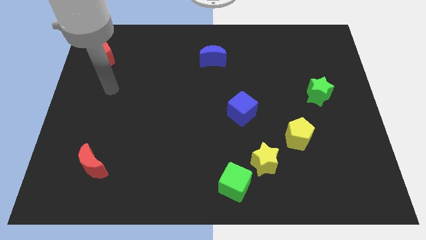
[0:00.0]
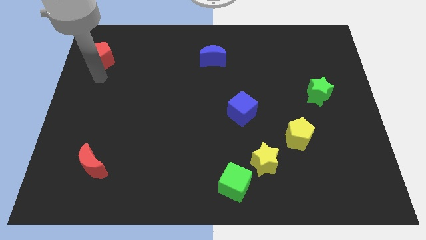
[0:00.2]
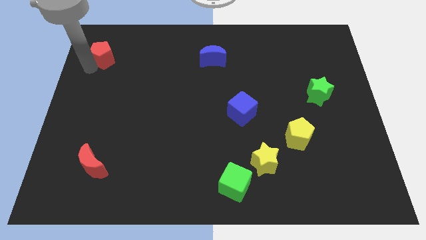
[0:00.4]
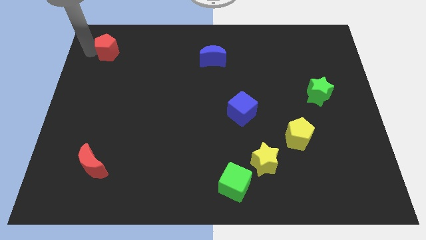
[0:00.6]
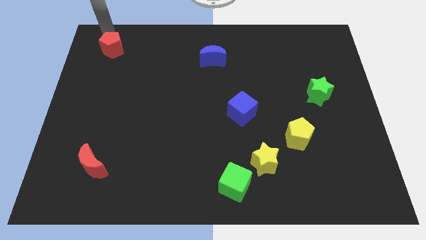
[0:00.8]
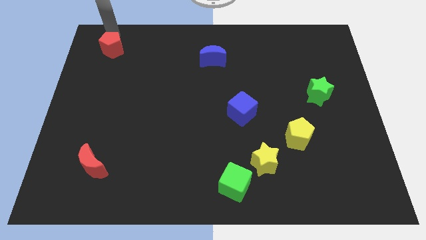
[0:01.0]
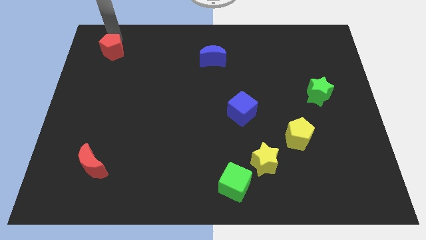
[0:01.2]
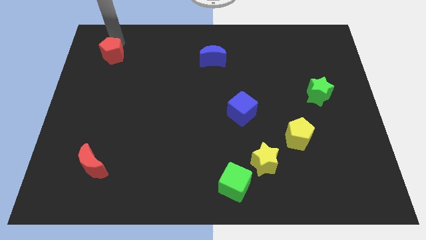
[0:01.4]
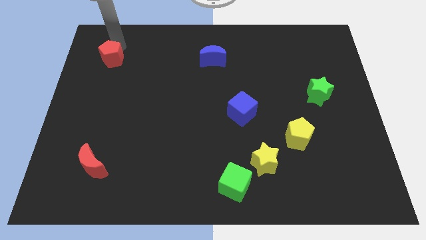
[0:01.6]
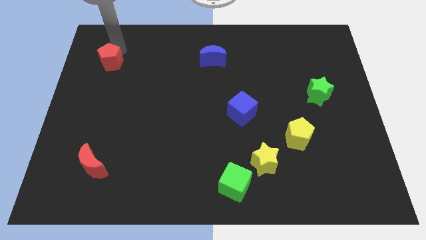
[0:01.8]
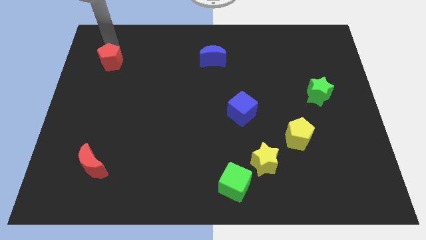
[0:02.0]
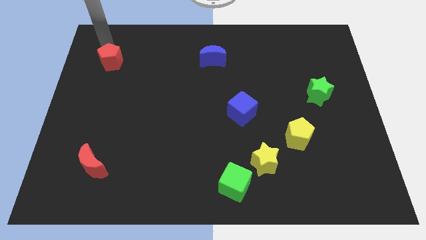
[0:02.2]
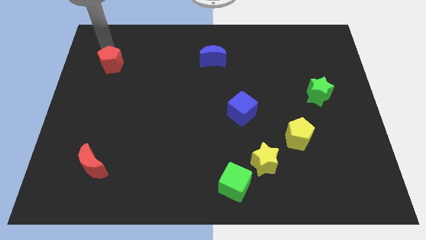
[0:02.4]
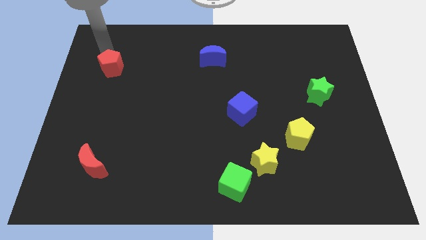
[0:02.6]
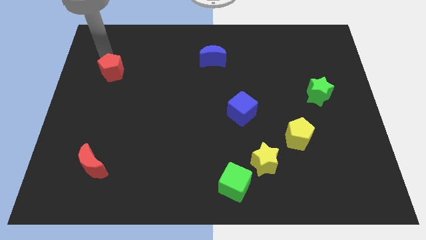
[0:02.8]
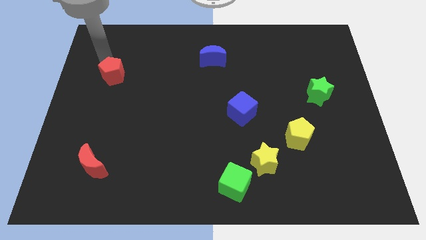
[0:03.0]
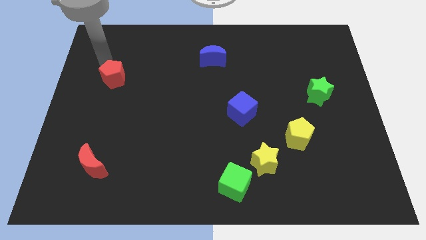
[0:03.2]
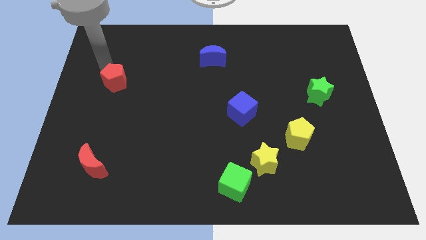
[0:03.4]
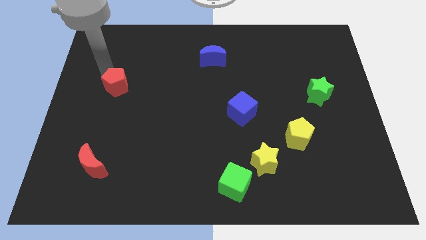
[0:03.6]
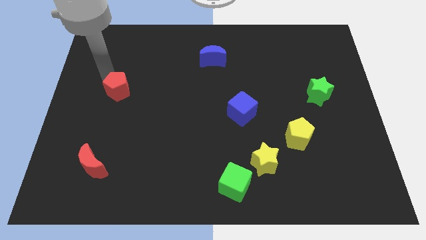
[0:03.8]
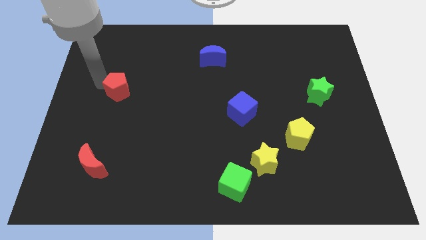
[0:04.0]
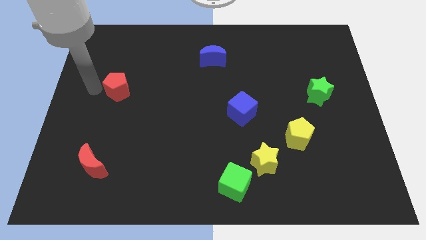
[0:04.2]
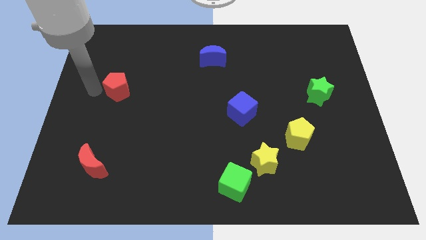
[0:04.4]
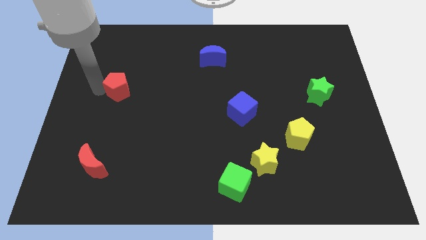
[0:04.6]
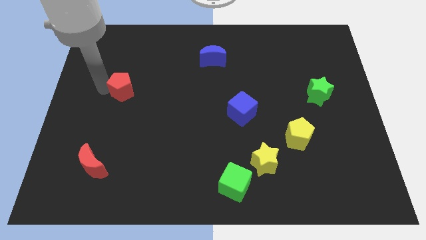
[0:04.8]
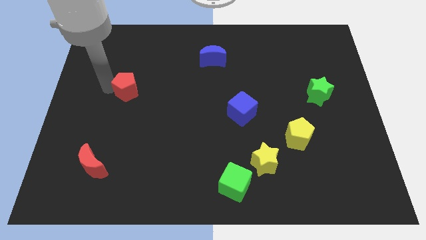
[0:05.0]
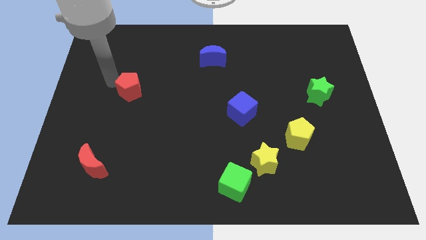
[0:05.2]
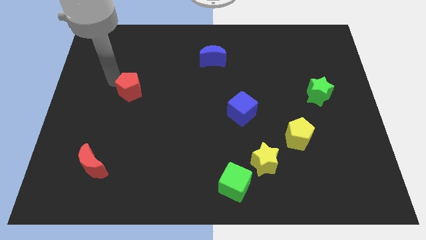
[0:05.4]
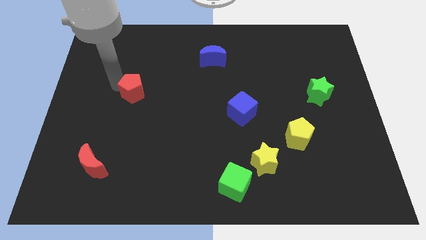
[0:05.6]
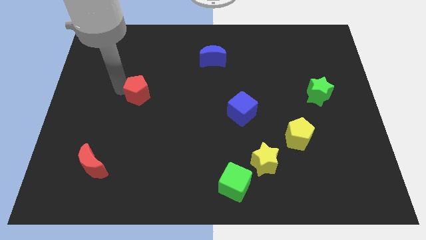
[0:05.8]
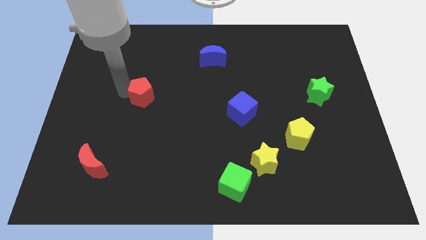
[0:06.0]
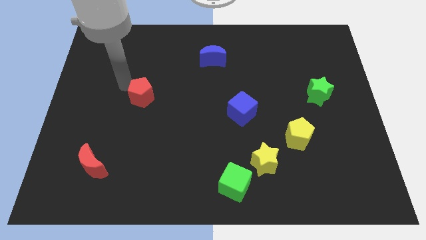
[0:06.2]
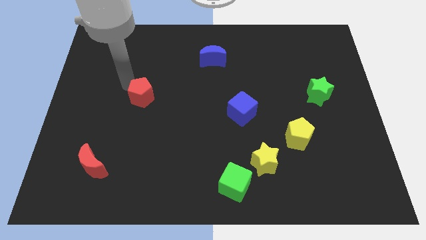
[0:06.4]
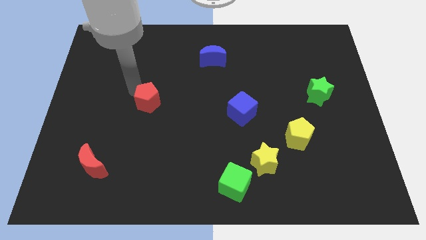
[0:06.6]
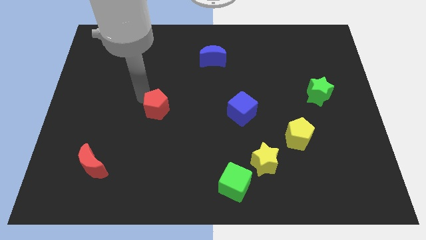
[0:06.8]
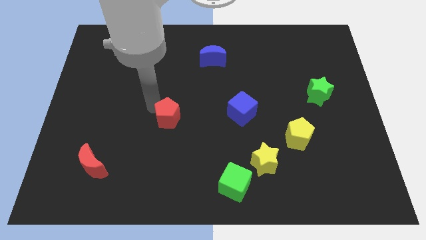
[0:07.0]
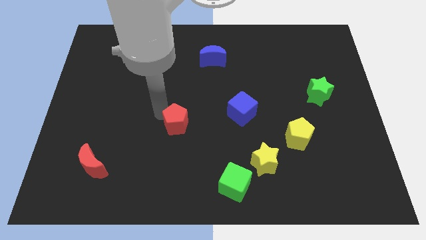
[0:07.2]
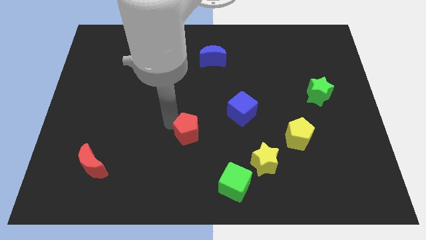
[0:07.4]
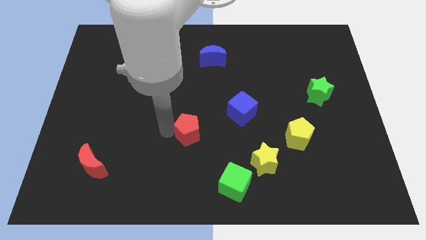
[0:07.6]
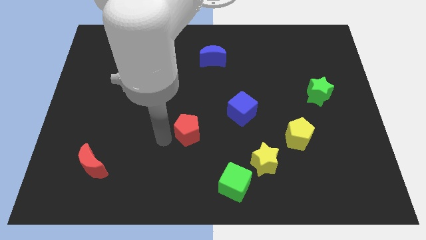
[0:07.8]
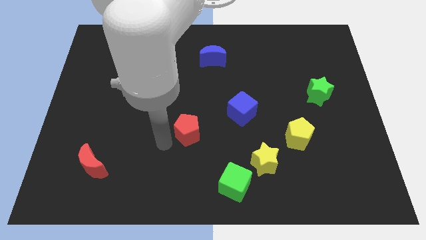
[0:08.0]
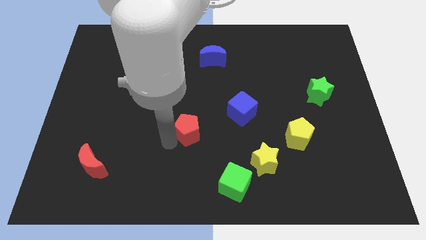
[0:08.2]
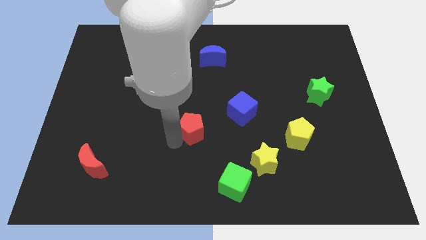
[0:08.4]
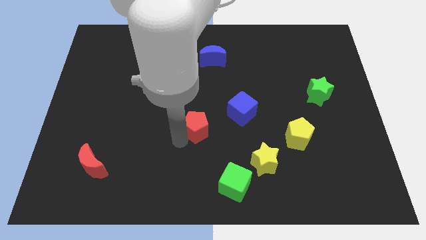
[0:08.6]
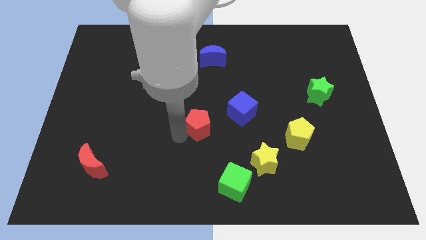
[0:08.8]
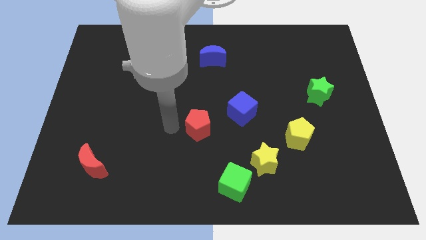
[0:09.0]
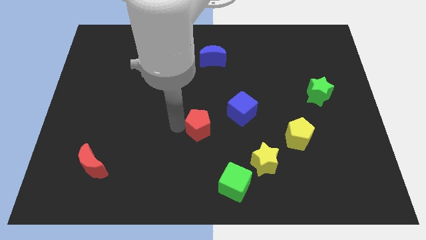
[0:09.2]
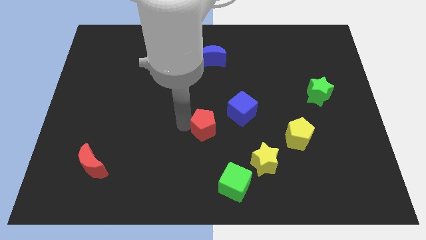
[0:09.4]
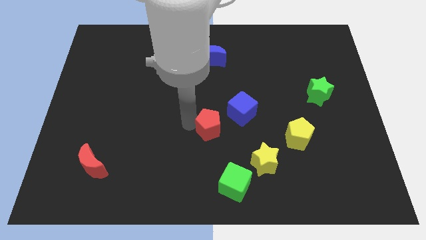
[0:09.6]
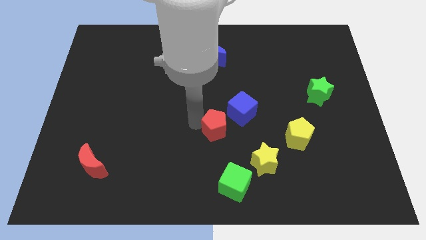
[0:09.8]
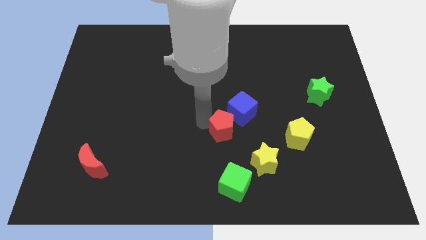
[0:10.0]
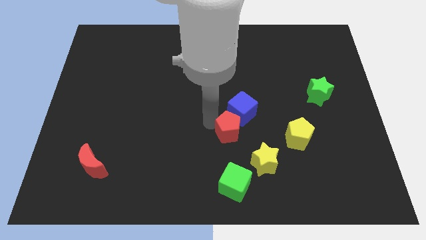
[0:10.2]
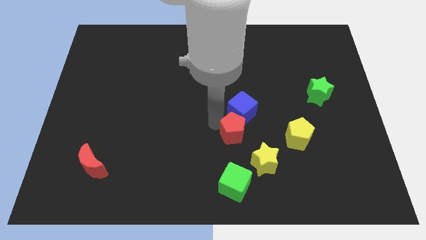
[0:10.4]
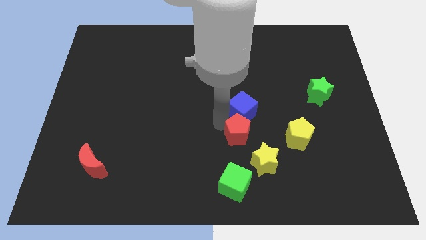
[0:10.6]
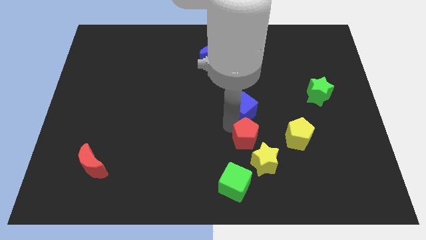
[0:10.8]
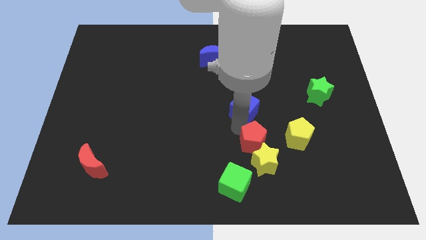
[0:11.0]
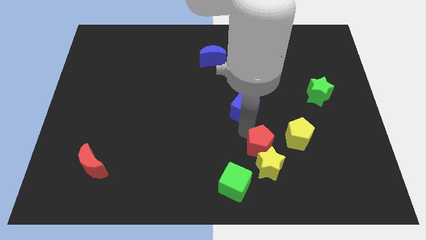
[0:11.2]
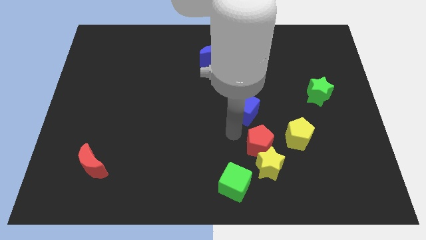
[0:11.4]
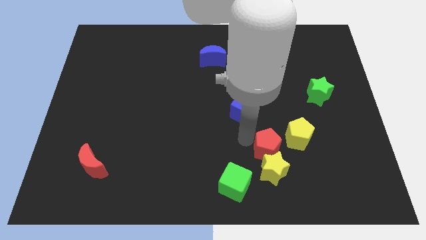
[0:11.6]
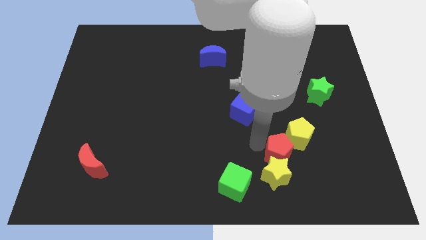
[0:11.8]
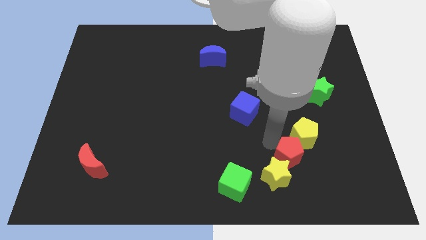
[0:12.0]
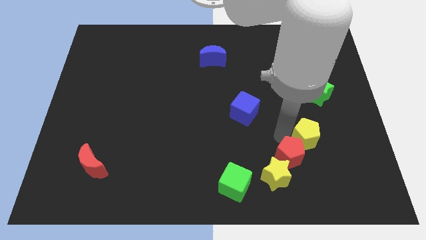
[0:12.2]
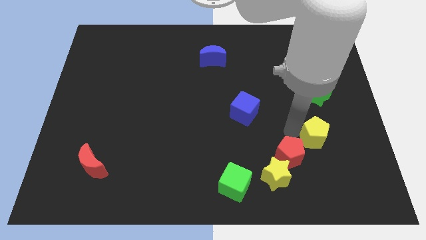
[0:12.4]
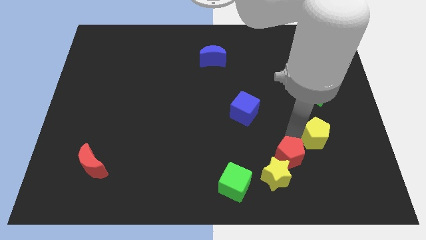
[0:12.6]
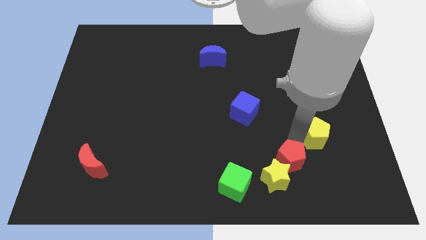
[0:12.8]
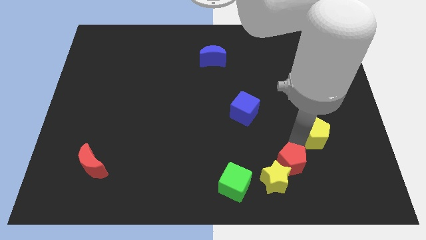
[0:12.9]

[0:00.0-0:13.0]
slide the red pentagon right of the green cube

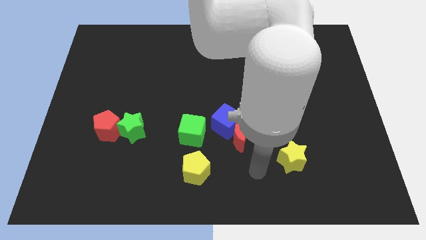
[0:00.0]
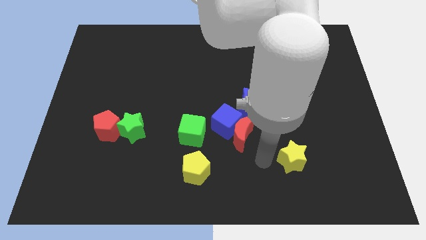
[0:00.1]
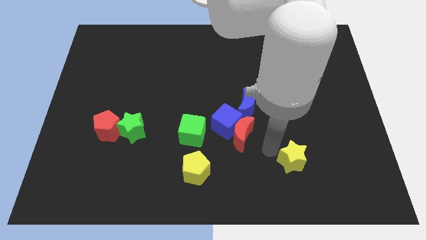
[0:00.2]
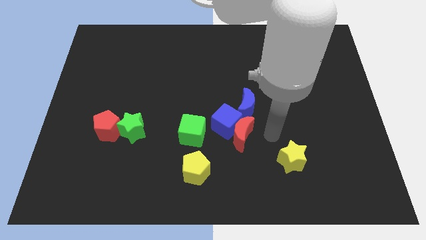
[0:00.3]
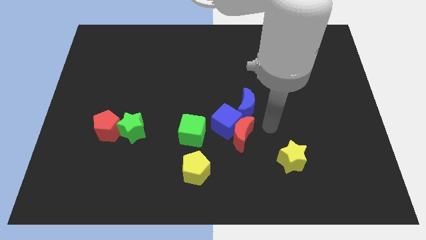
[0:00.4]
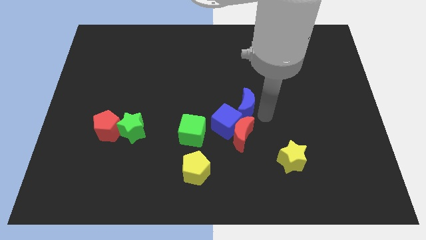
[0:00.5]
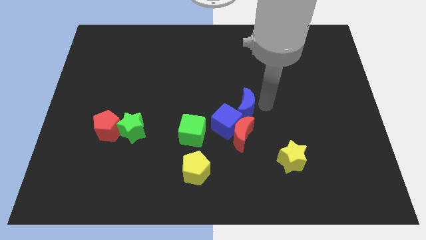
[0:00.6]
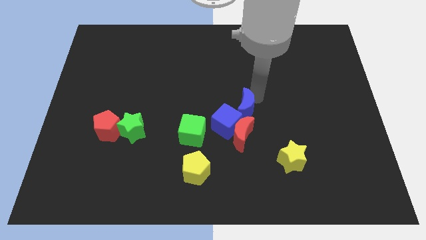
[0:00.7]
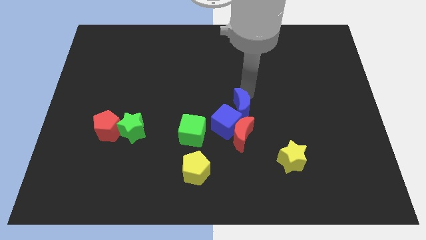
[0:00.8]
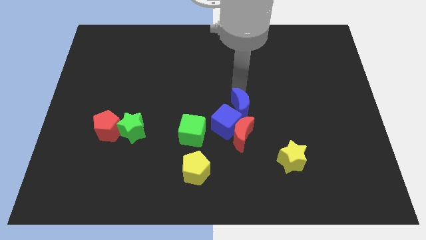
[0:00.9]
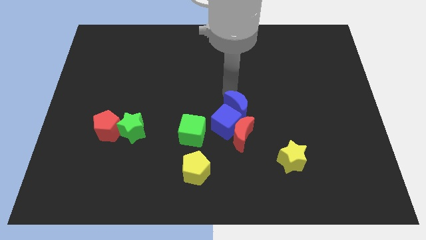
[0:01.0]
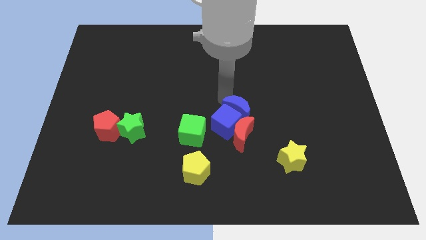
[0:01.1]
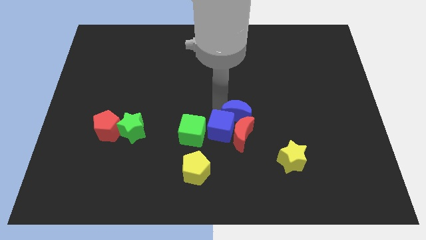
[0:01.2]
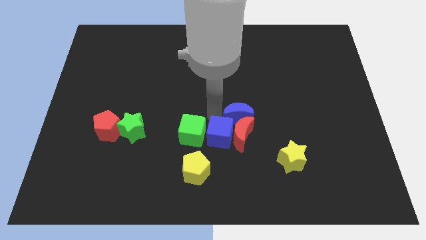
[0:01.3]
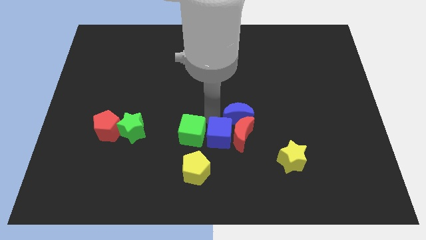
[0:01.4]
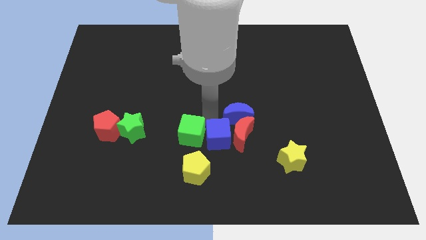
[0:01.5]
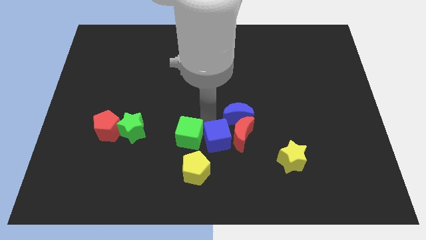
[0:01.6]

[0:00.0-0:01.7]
move the green cube diagonally up and to the left of the yellow pentagon
